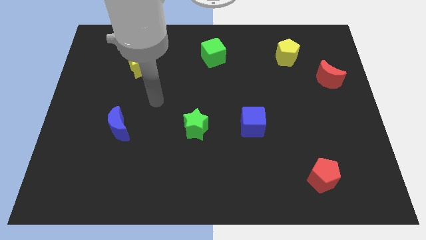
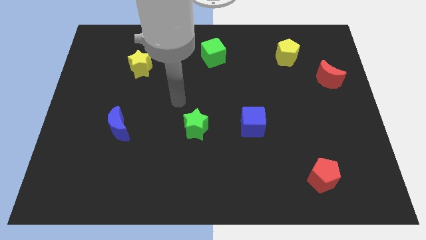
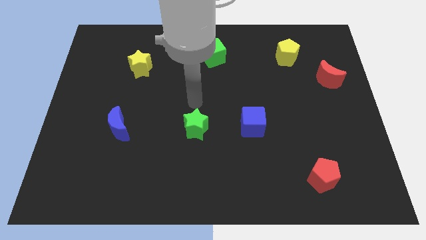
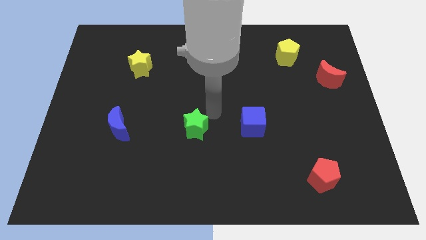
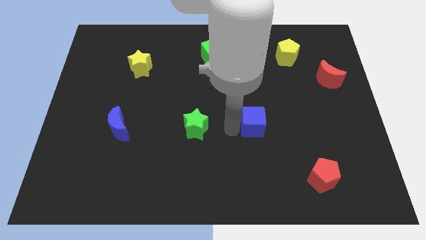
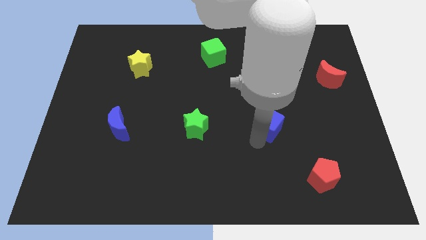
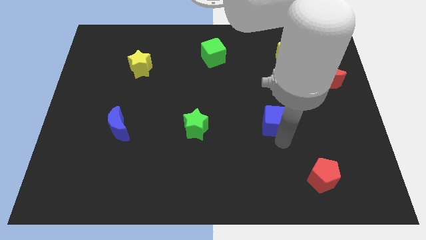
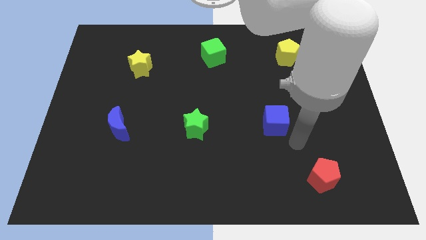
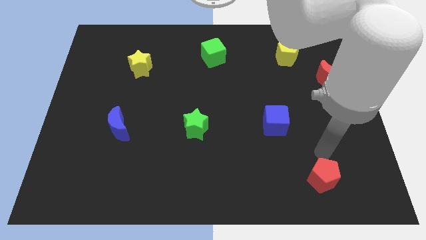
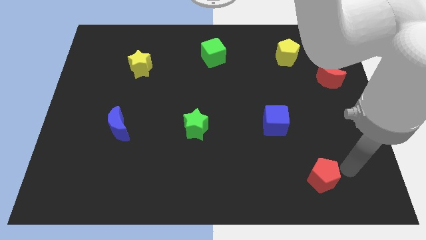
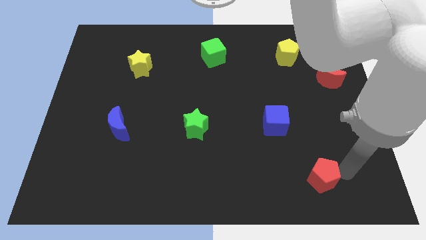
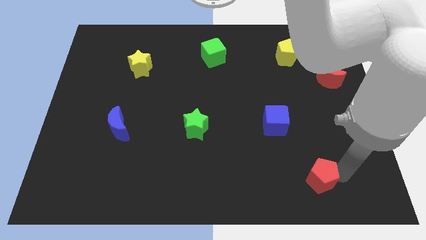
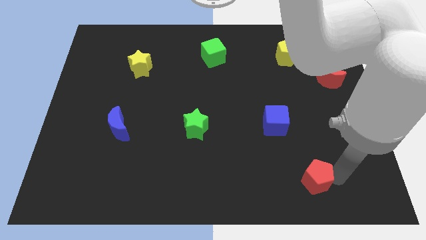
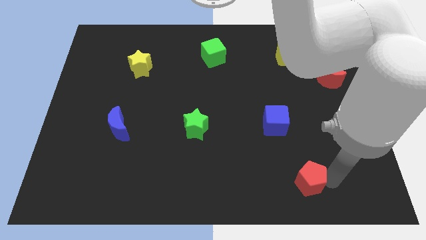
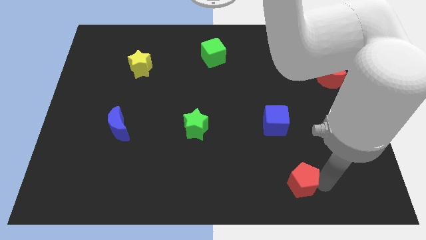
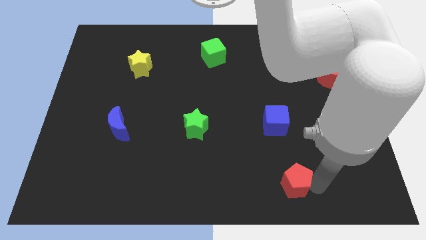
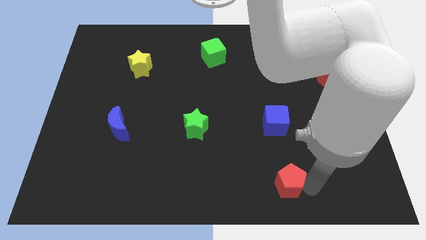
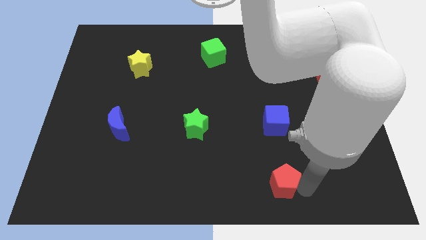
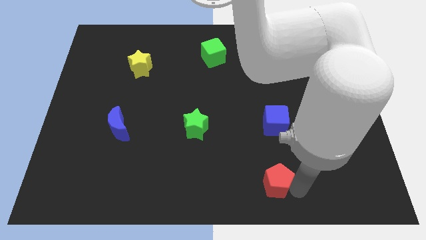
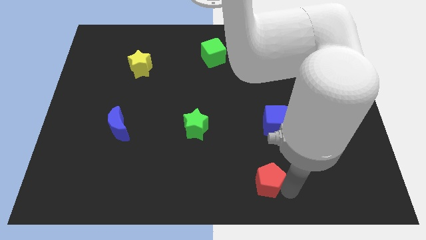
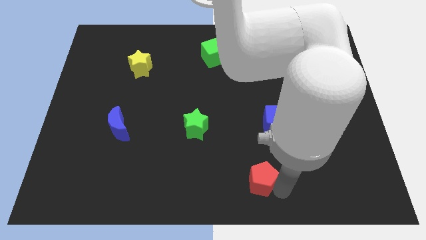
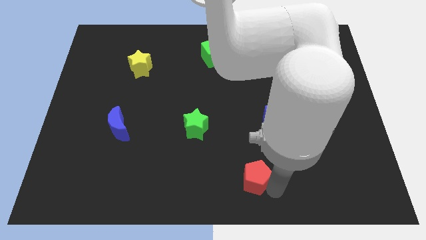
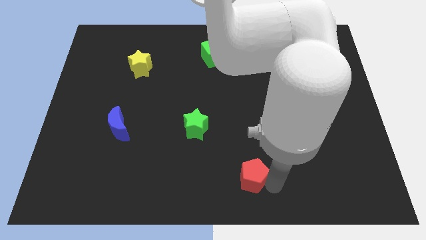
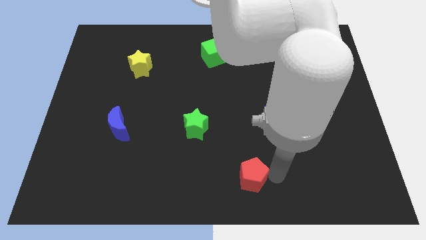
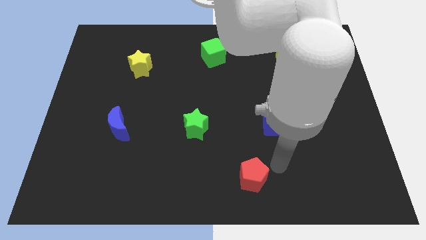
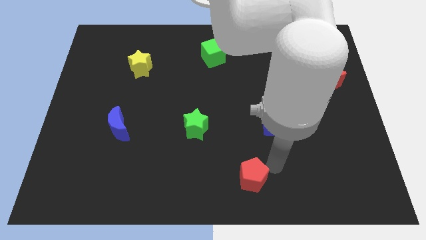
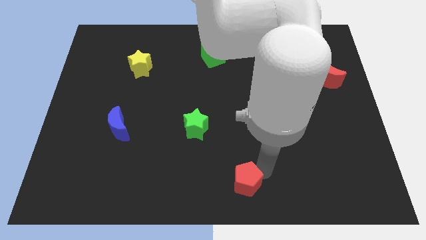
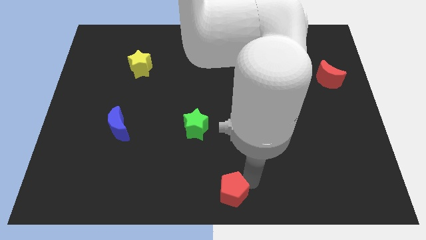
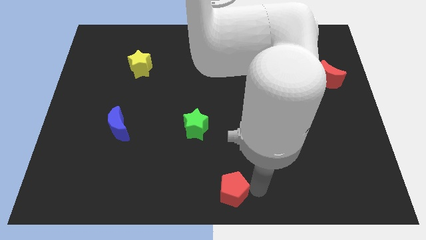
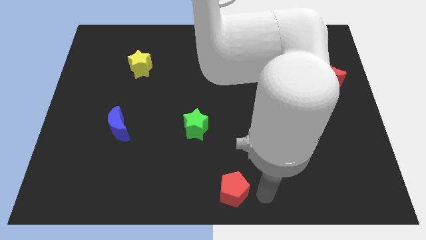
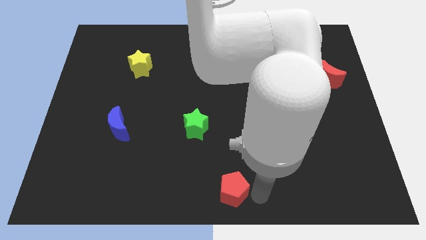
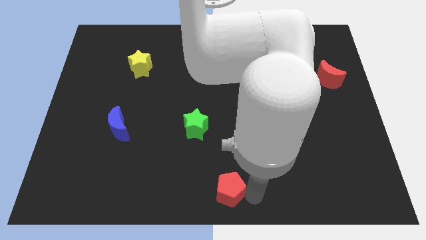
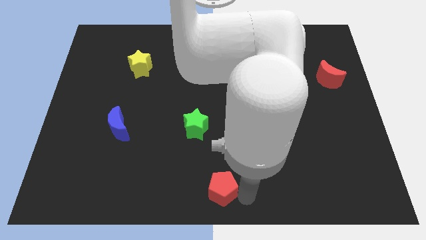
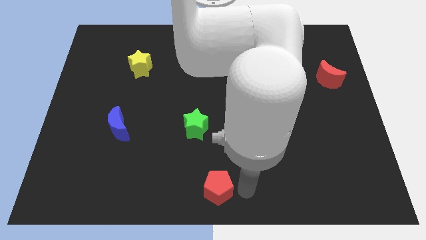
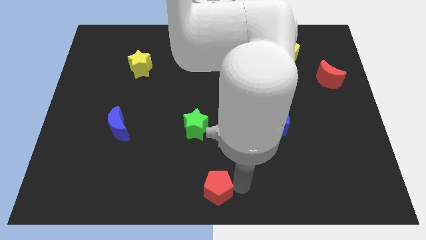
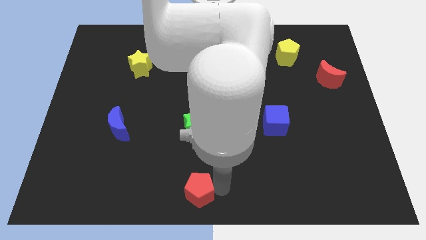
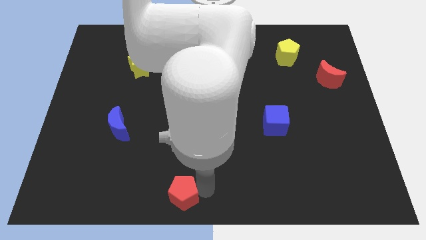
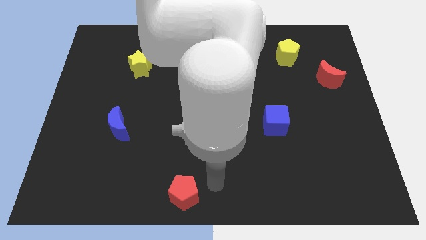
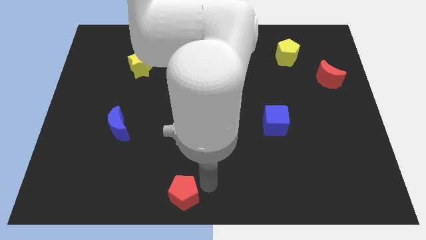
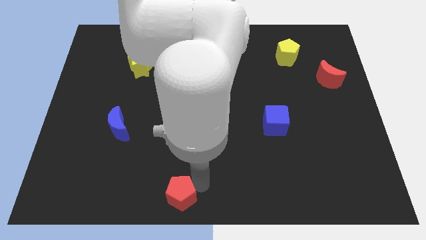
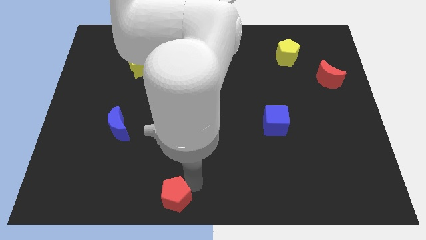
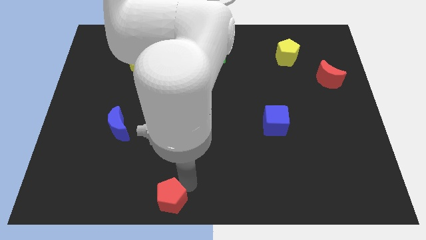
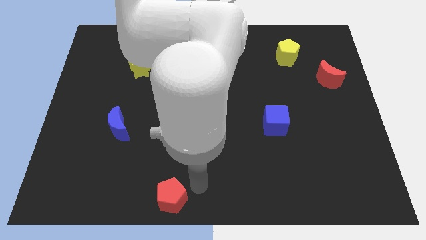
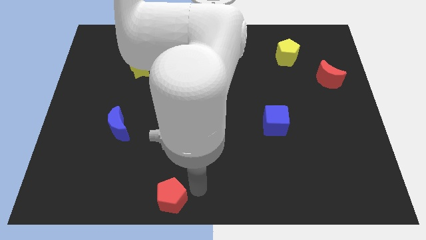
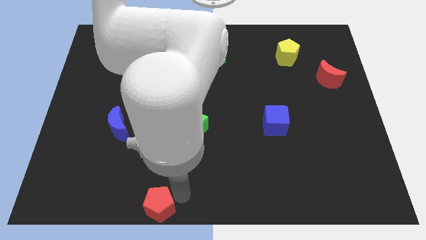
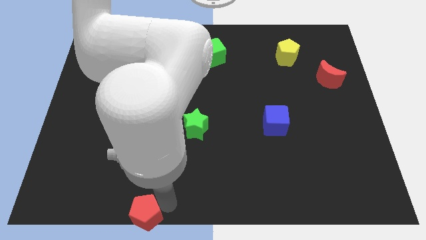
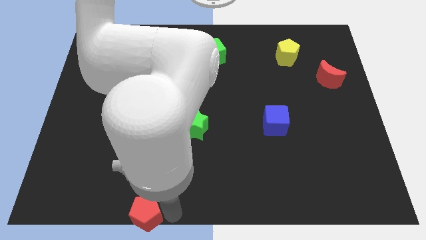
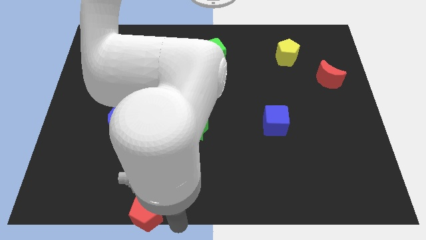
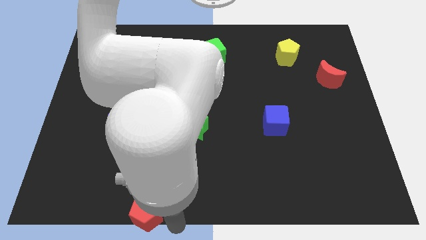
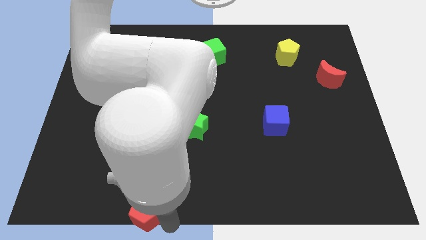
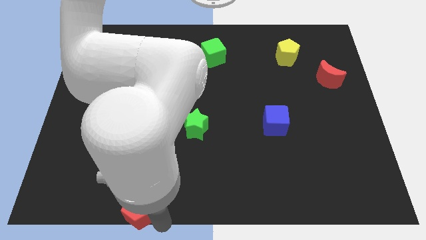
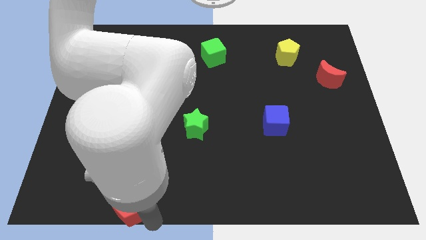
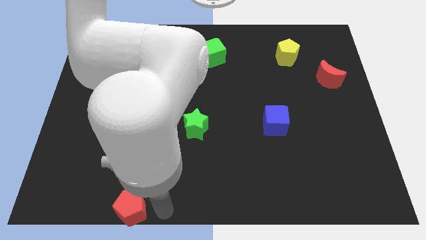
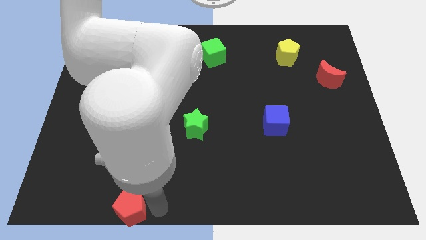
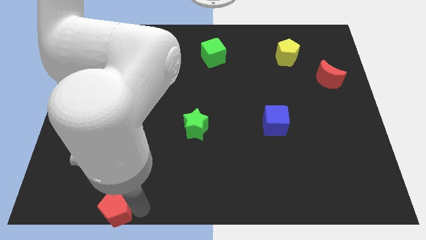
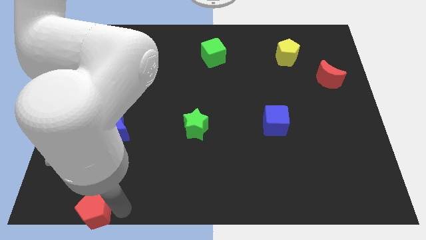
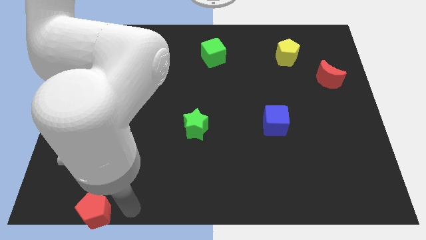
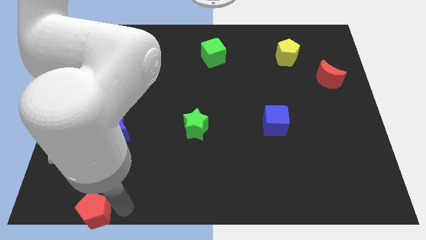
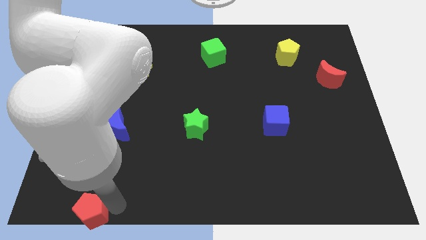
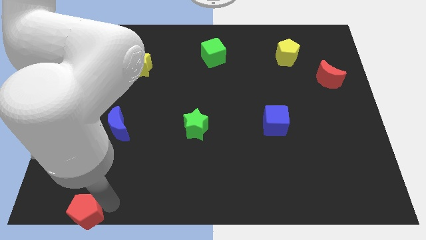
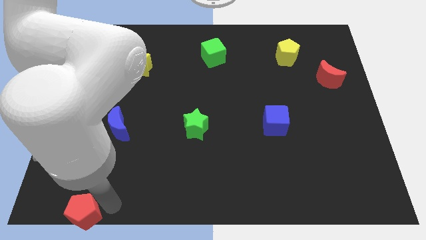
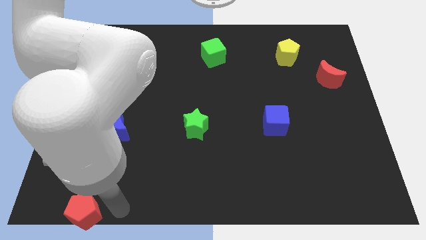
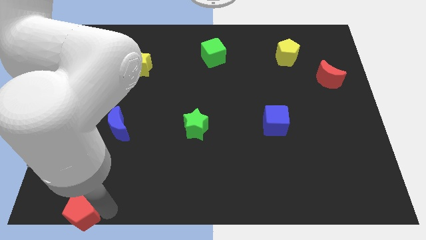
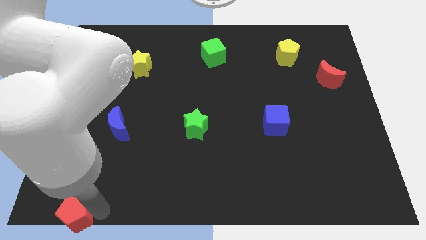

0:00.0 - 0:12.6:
push the red pentagon to the lower left corner
